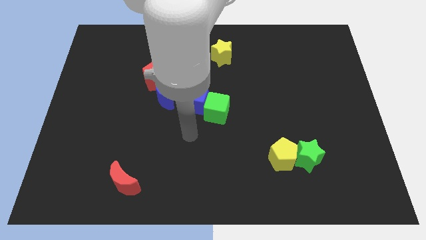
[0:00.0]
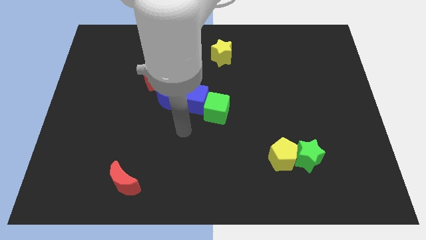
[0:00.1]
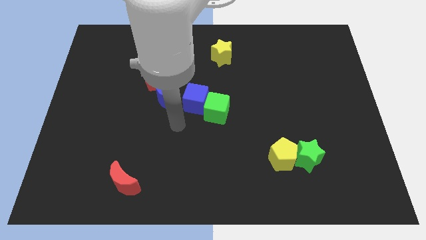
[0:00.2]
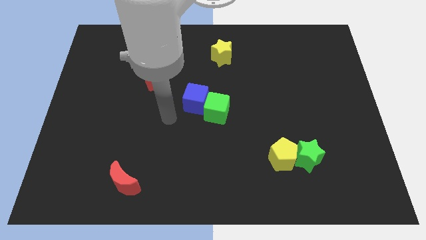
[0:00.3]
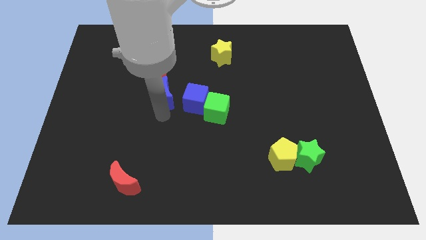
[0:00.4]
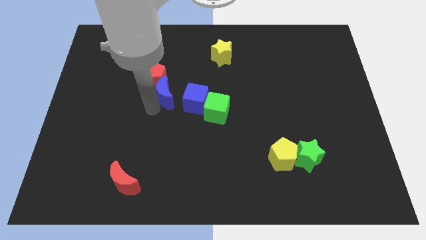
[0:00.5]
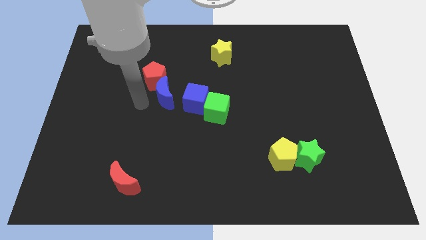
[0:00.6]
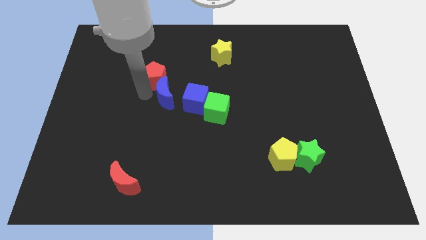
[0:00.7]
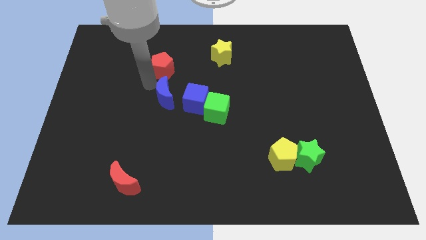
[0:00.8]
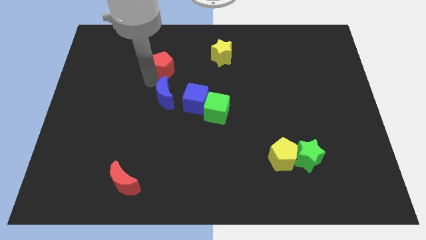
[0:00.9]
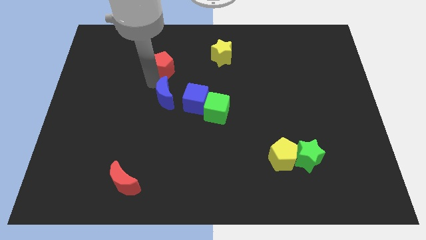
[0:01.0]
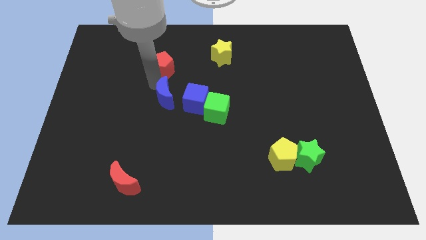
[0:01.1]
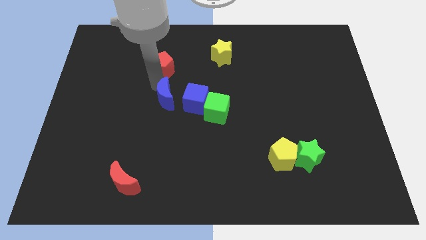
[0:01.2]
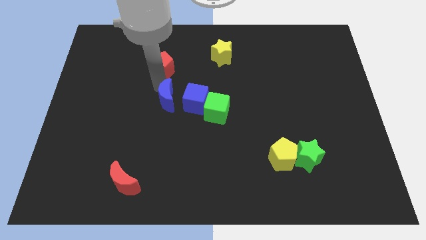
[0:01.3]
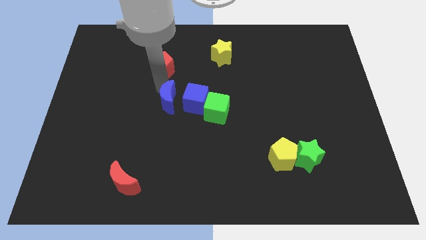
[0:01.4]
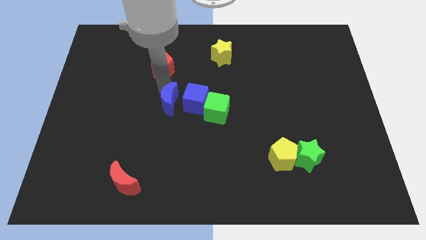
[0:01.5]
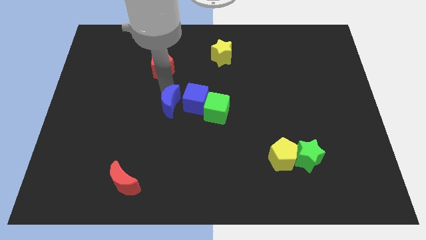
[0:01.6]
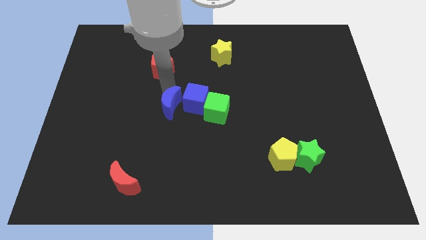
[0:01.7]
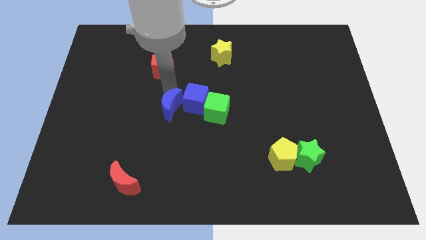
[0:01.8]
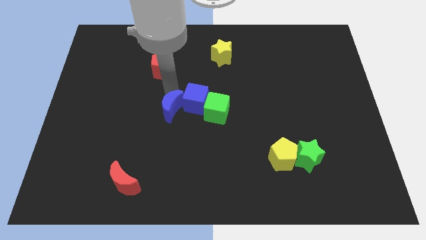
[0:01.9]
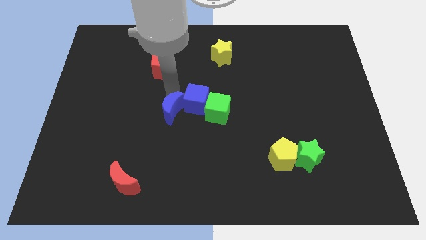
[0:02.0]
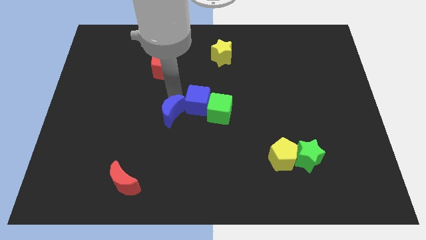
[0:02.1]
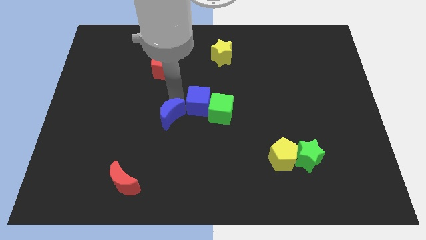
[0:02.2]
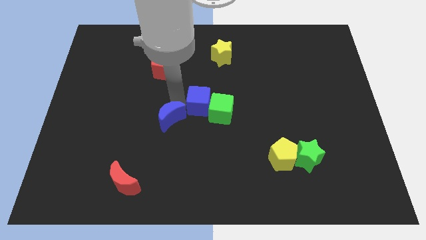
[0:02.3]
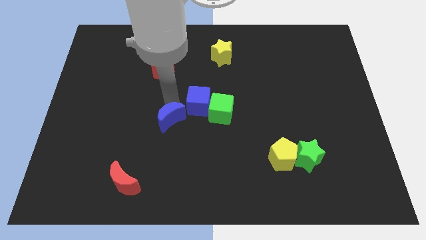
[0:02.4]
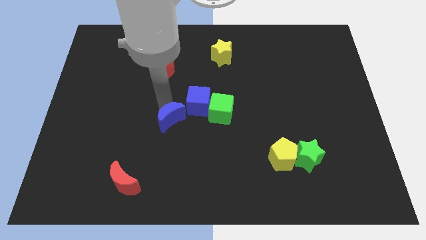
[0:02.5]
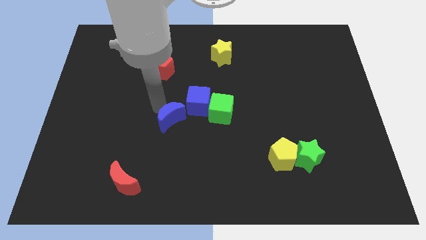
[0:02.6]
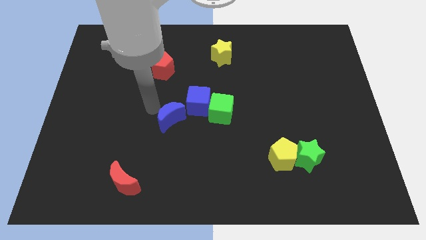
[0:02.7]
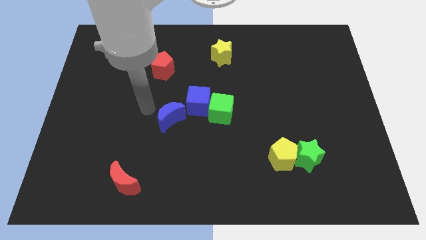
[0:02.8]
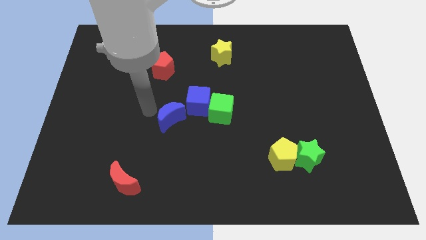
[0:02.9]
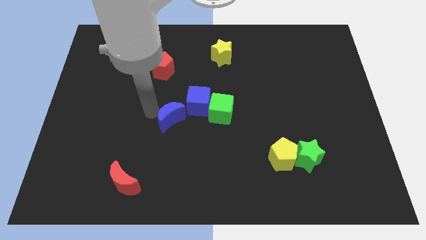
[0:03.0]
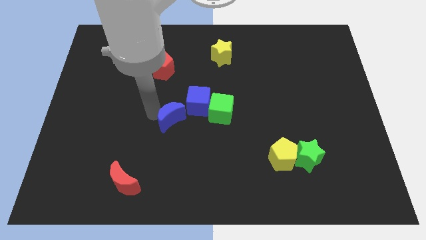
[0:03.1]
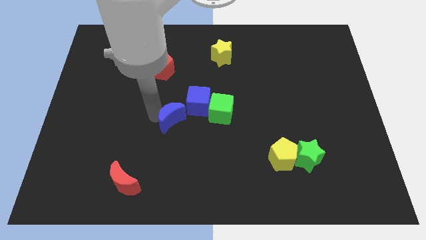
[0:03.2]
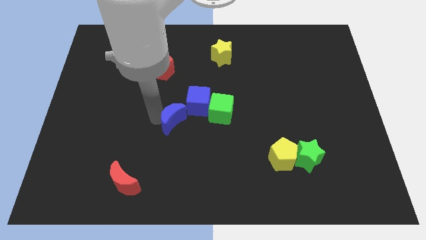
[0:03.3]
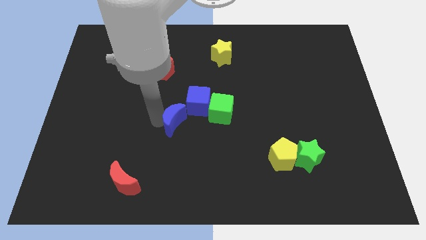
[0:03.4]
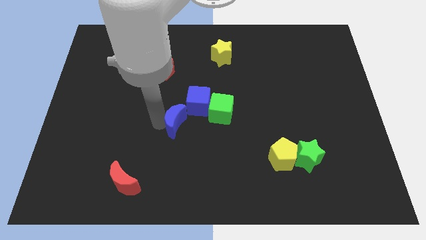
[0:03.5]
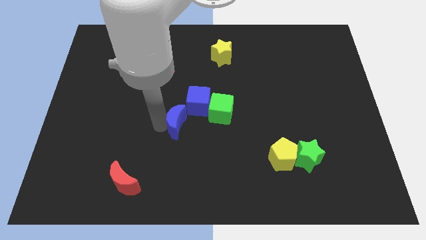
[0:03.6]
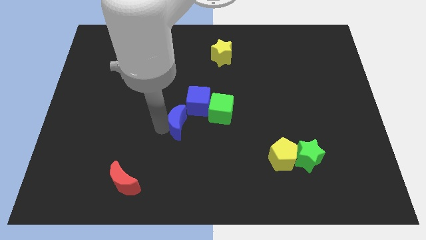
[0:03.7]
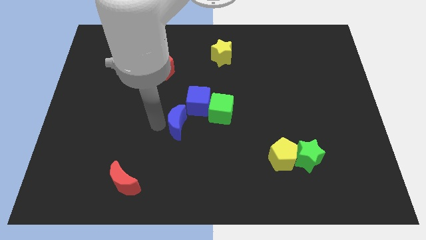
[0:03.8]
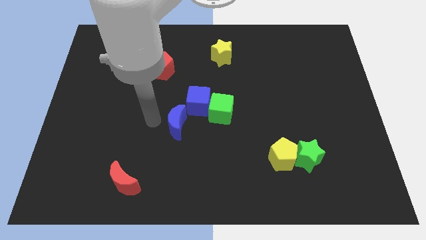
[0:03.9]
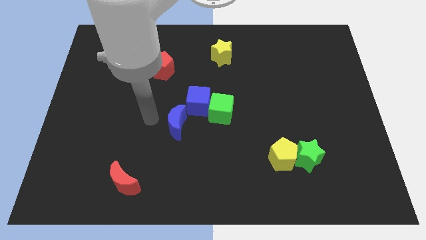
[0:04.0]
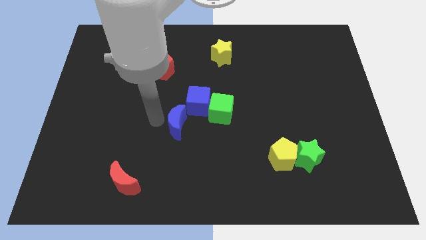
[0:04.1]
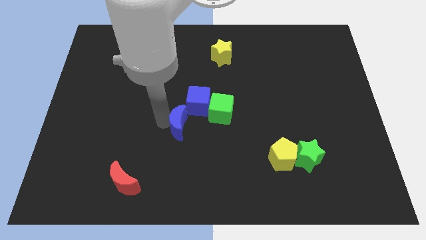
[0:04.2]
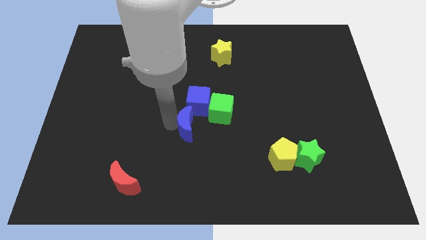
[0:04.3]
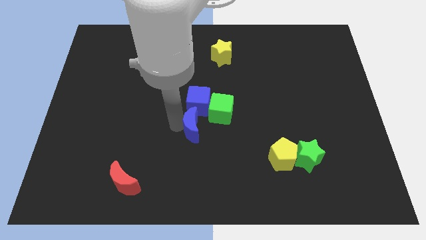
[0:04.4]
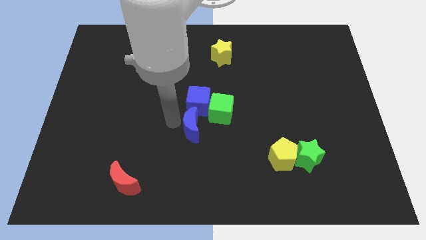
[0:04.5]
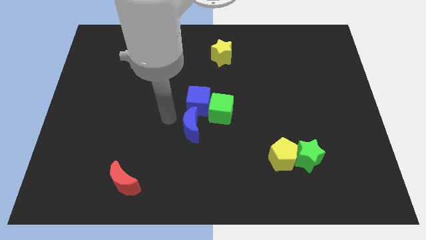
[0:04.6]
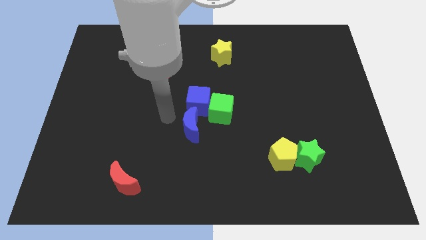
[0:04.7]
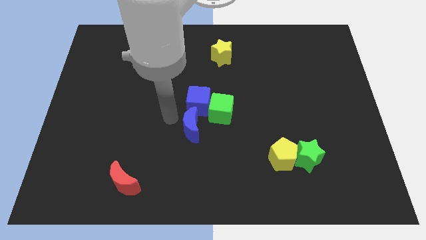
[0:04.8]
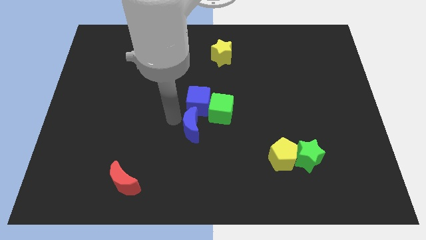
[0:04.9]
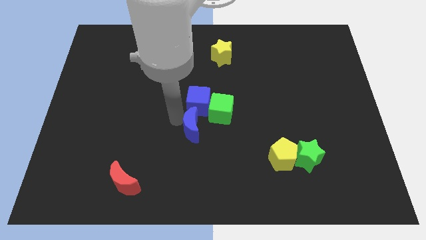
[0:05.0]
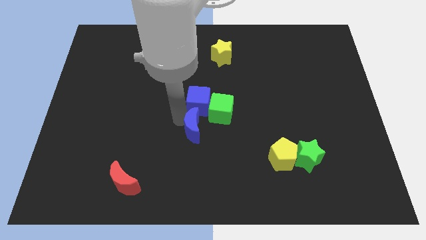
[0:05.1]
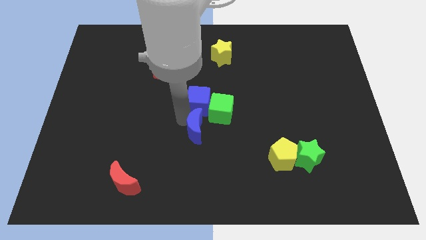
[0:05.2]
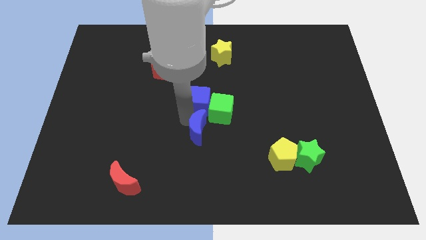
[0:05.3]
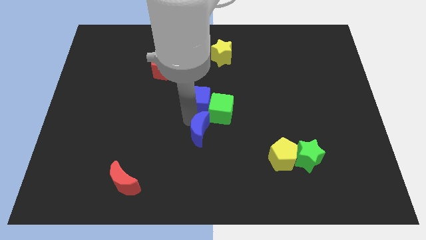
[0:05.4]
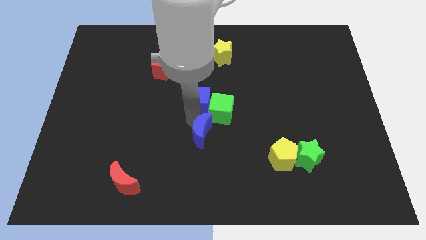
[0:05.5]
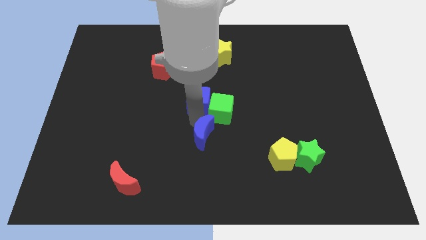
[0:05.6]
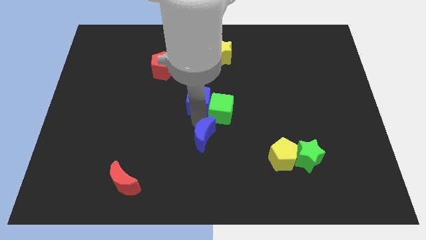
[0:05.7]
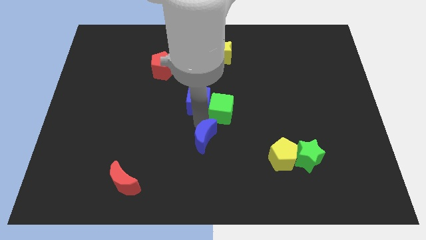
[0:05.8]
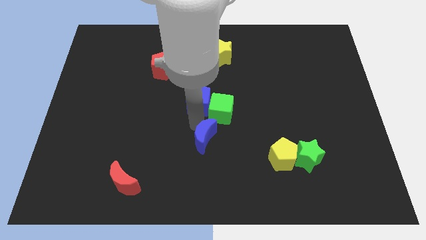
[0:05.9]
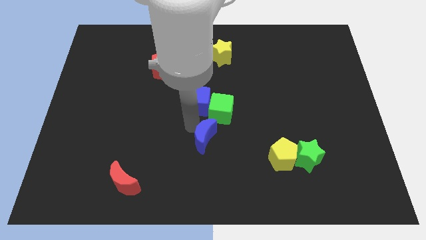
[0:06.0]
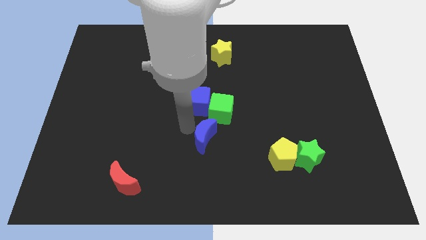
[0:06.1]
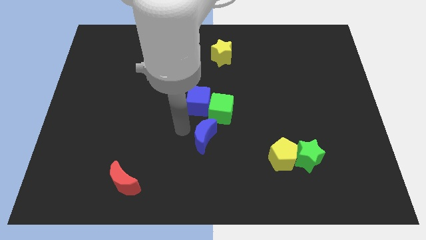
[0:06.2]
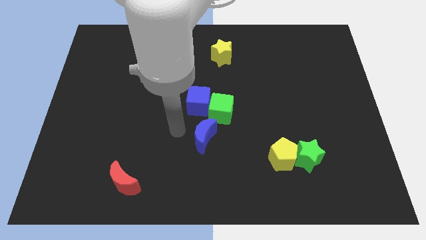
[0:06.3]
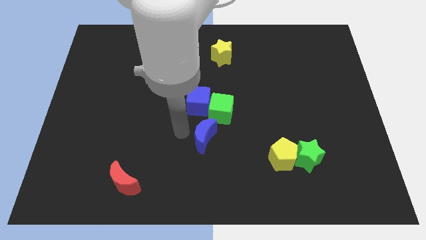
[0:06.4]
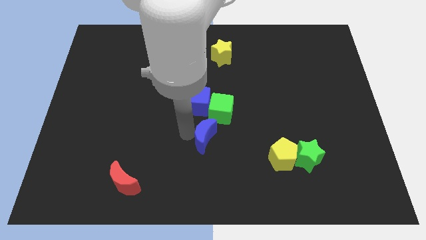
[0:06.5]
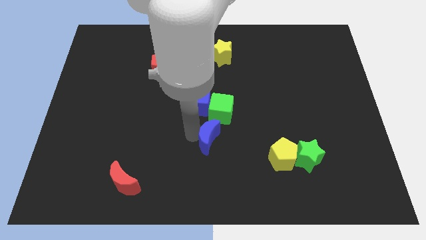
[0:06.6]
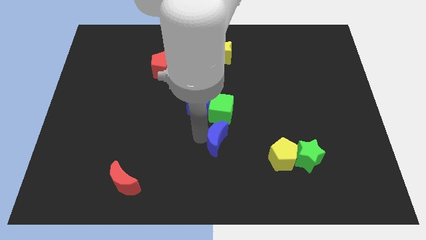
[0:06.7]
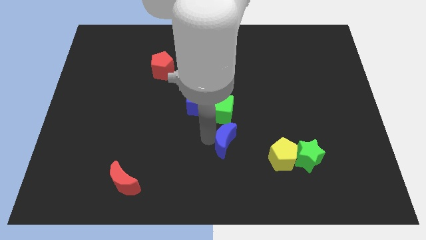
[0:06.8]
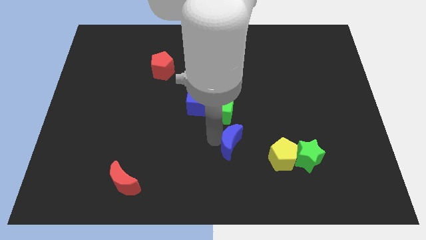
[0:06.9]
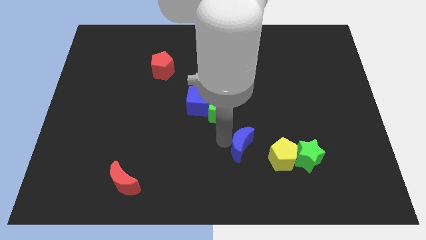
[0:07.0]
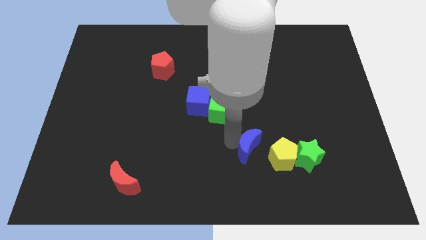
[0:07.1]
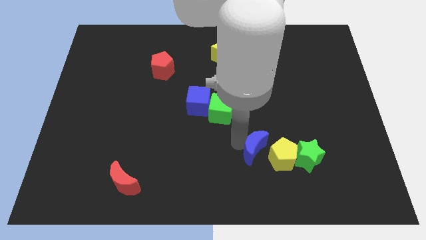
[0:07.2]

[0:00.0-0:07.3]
push the blue moon to the yellow pentagon

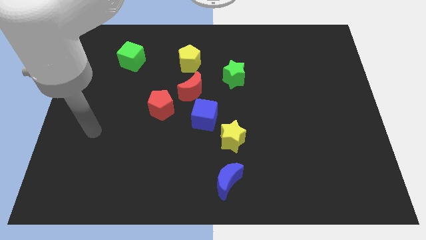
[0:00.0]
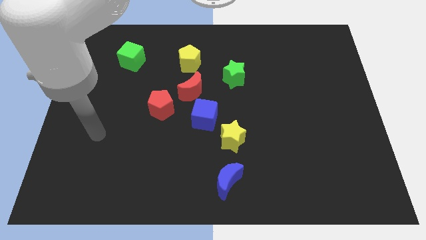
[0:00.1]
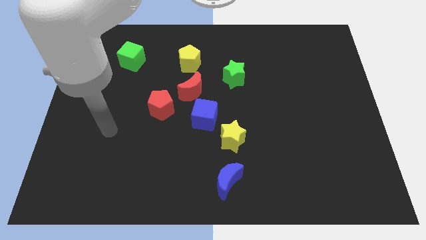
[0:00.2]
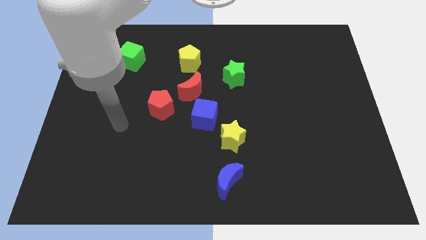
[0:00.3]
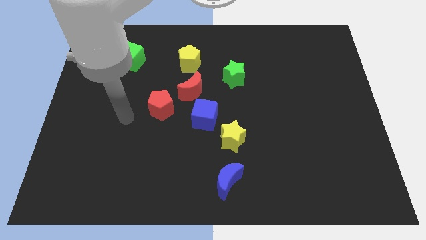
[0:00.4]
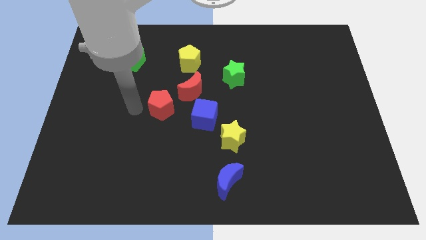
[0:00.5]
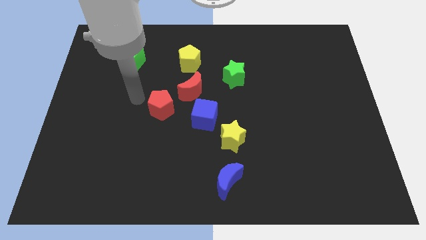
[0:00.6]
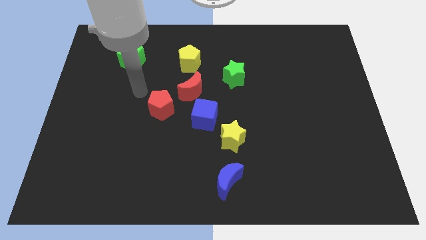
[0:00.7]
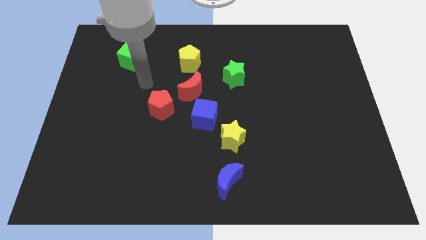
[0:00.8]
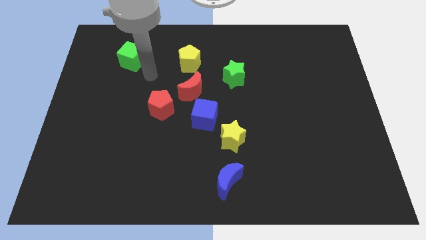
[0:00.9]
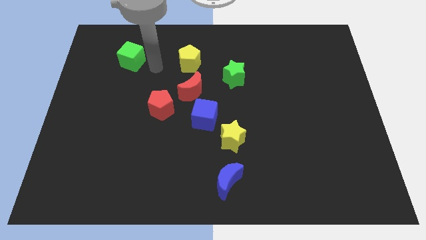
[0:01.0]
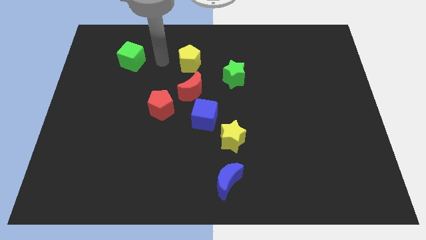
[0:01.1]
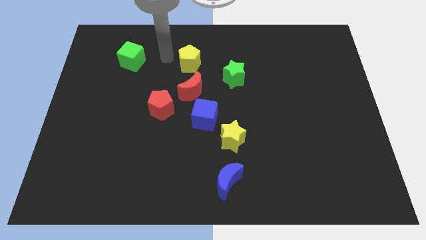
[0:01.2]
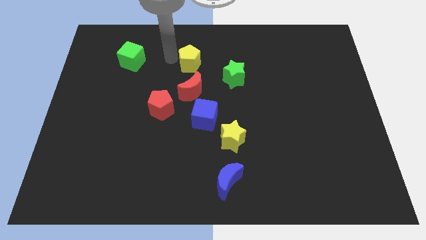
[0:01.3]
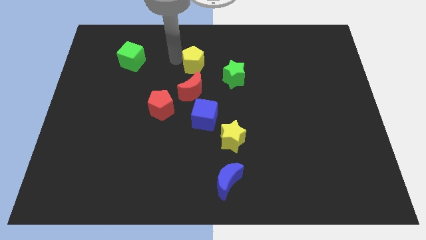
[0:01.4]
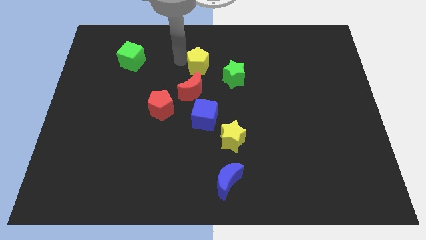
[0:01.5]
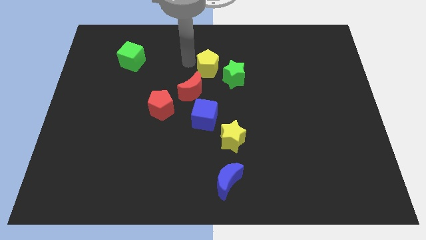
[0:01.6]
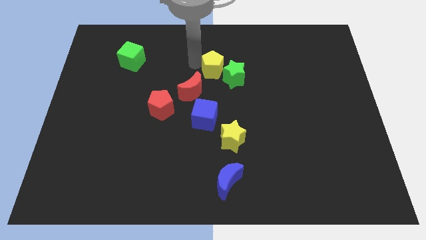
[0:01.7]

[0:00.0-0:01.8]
slide the yellow pentagon next to the green star
